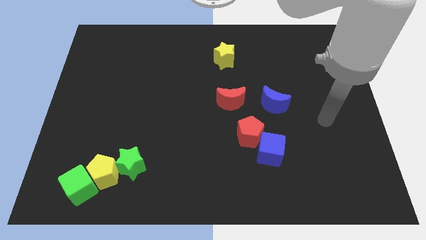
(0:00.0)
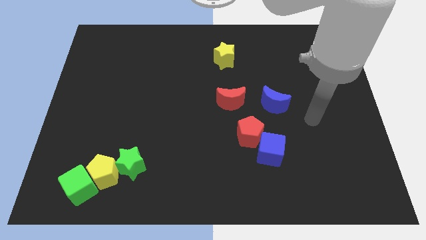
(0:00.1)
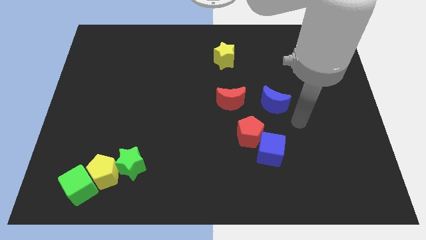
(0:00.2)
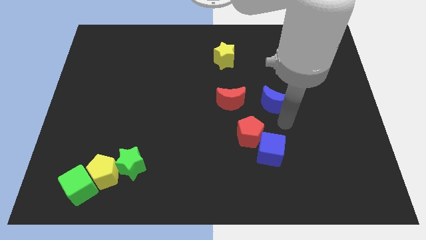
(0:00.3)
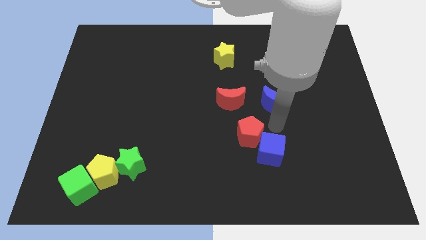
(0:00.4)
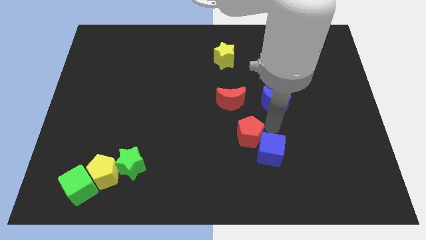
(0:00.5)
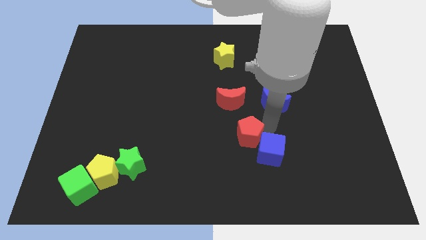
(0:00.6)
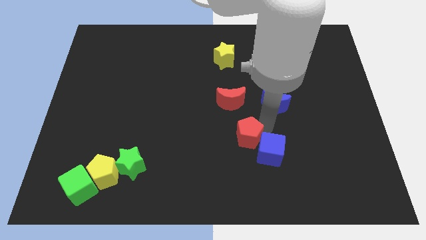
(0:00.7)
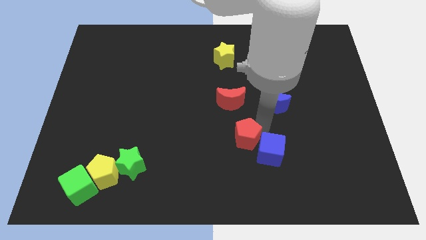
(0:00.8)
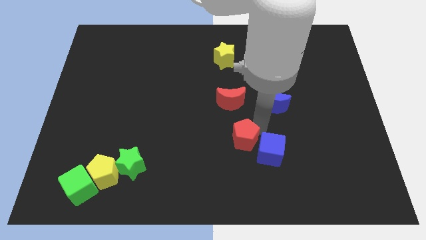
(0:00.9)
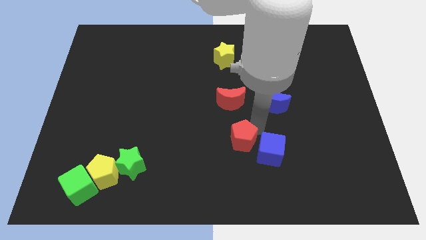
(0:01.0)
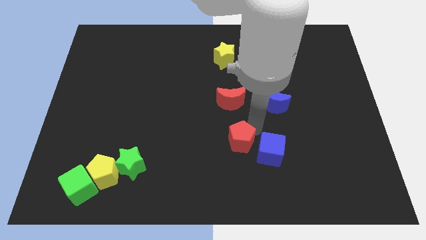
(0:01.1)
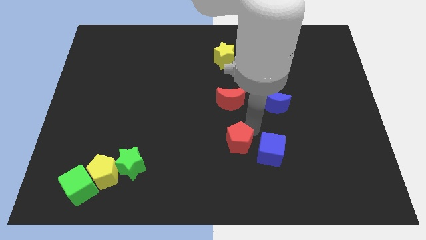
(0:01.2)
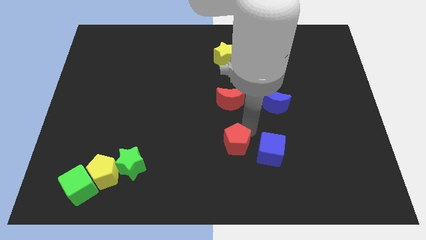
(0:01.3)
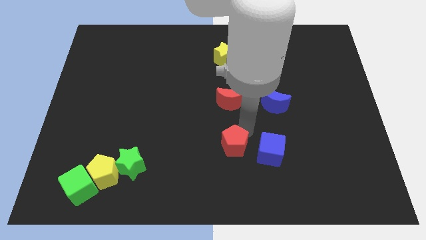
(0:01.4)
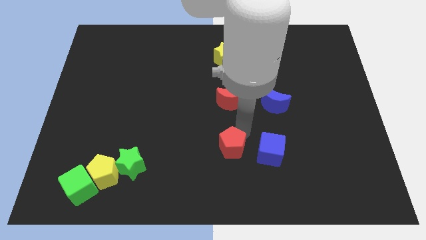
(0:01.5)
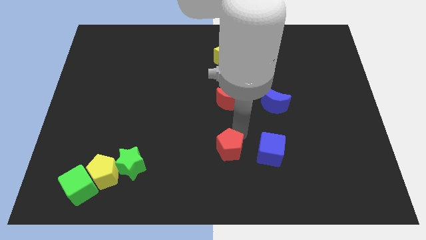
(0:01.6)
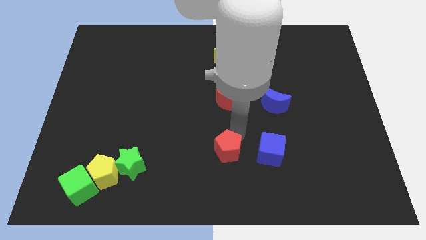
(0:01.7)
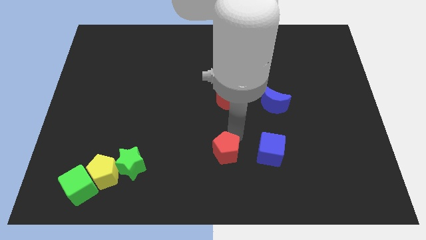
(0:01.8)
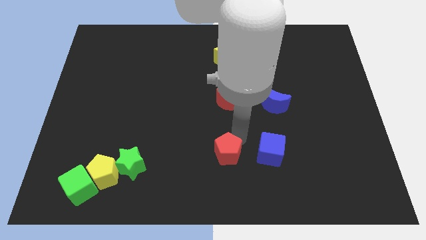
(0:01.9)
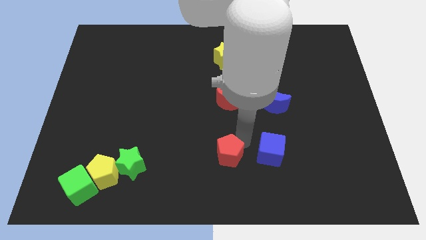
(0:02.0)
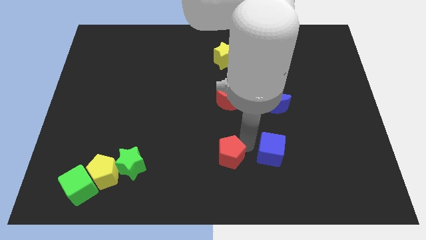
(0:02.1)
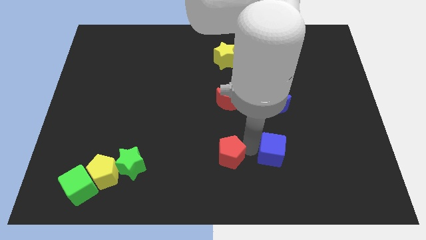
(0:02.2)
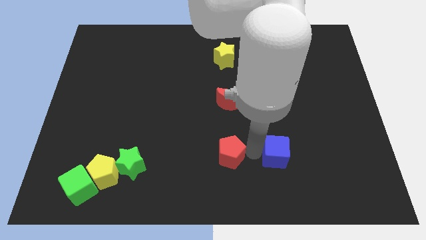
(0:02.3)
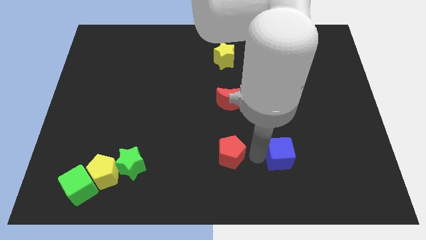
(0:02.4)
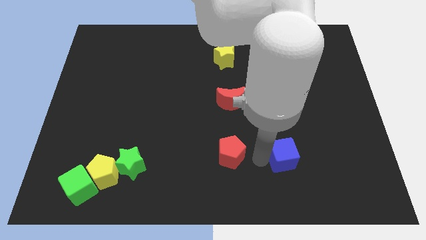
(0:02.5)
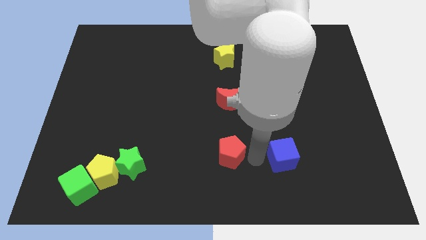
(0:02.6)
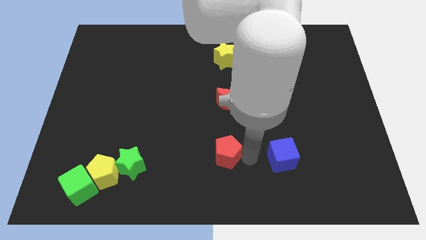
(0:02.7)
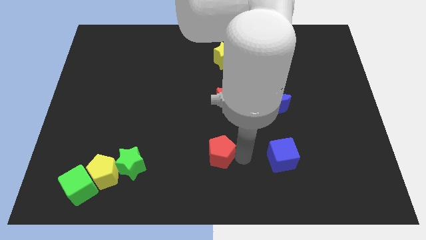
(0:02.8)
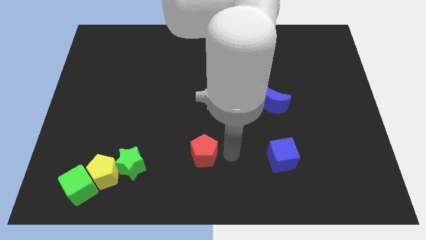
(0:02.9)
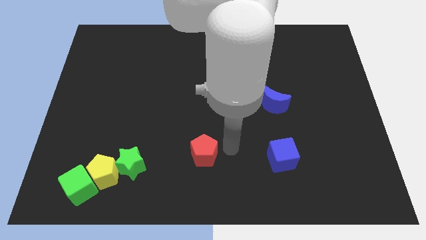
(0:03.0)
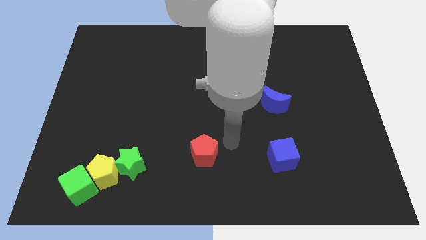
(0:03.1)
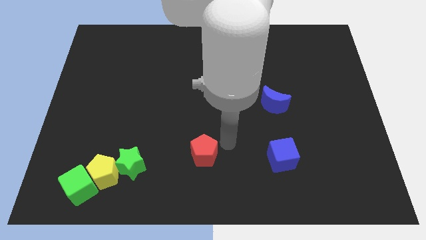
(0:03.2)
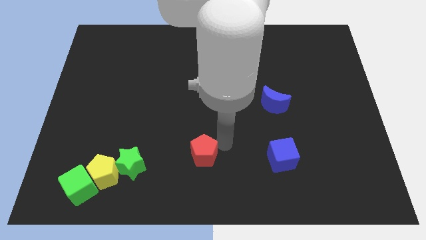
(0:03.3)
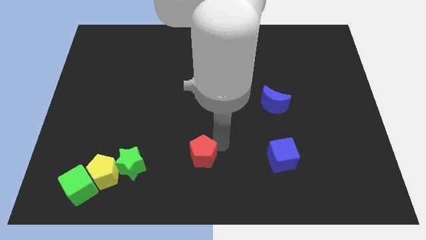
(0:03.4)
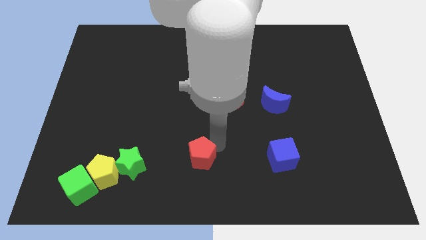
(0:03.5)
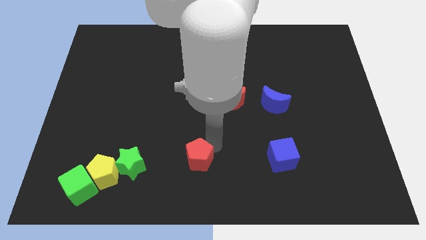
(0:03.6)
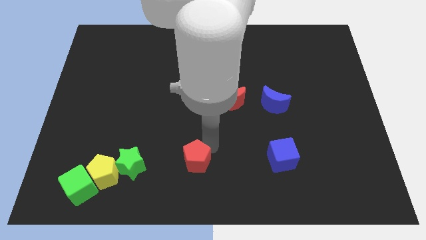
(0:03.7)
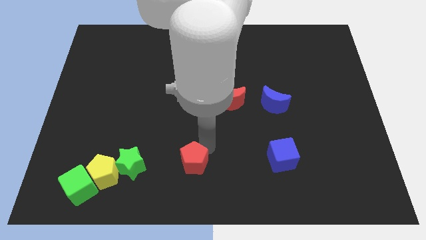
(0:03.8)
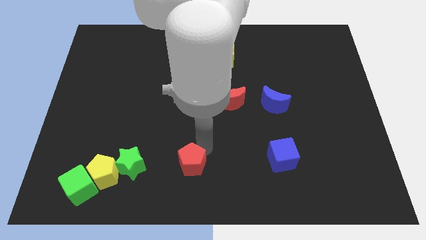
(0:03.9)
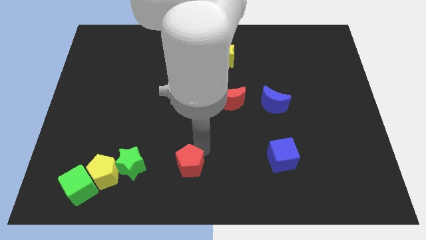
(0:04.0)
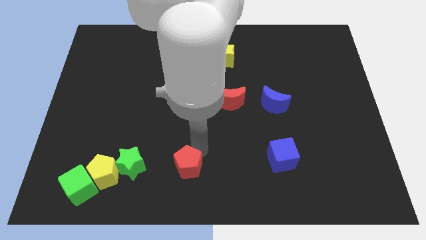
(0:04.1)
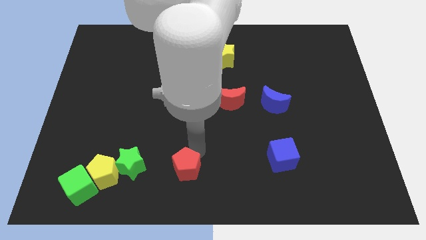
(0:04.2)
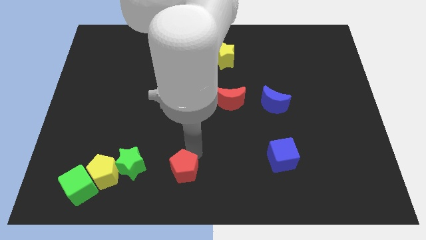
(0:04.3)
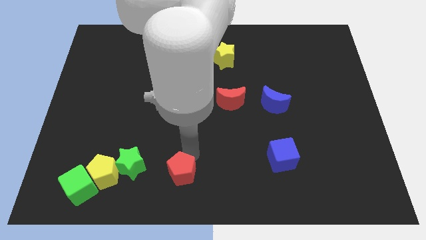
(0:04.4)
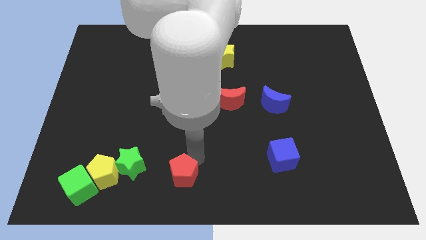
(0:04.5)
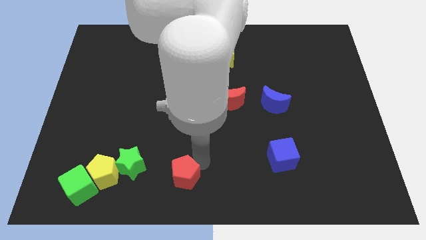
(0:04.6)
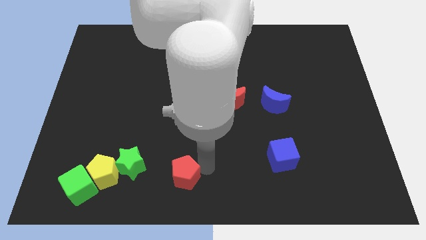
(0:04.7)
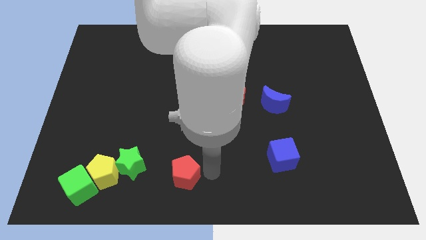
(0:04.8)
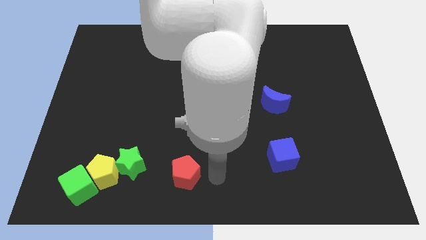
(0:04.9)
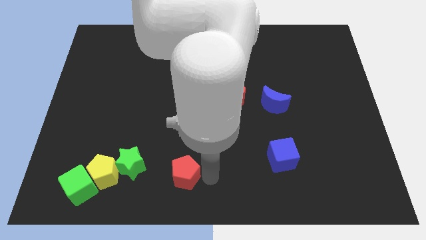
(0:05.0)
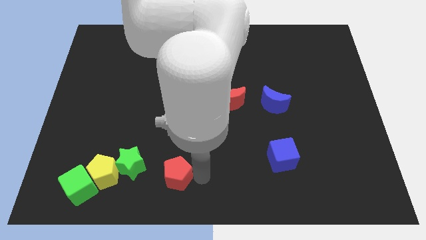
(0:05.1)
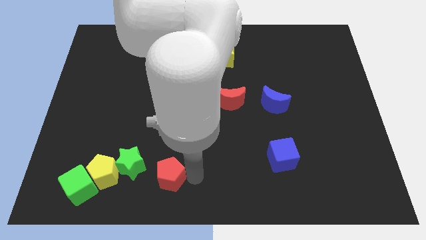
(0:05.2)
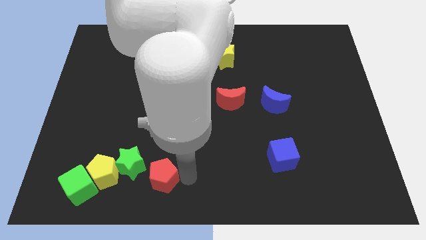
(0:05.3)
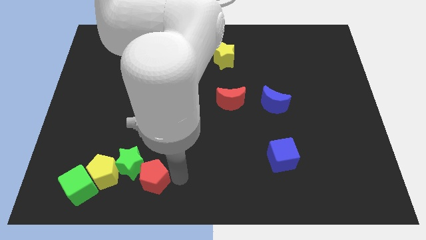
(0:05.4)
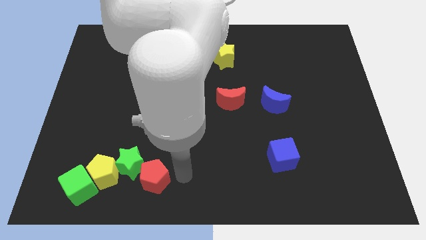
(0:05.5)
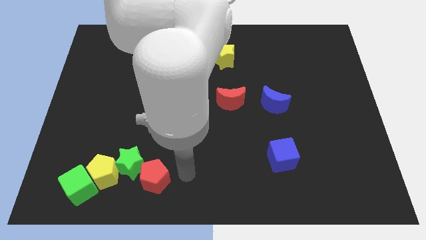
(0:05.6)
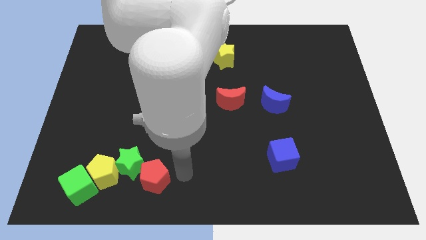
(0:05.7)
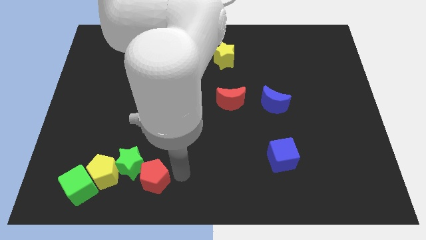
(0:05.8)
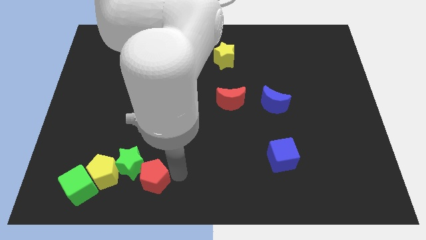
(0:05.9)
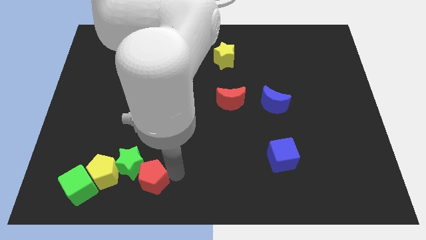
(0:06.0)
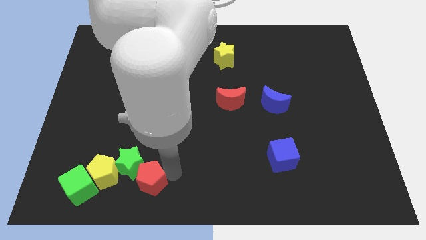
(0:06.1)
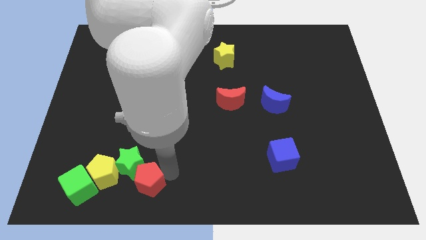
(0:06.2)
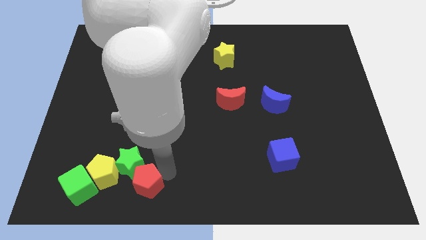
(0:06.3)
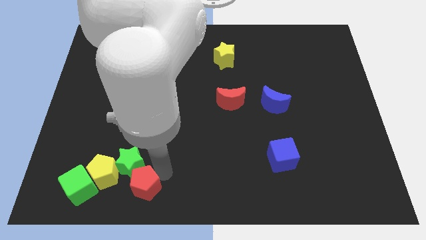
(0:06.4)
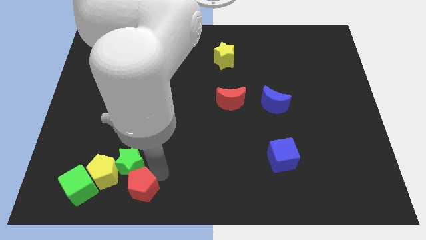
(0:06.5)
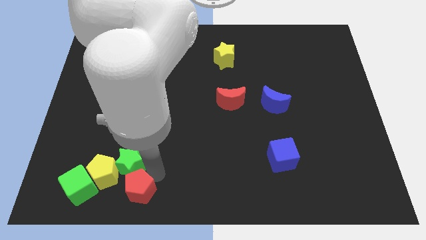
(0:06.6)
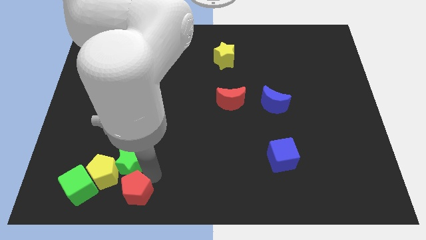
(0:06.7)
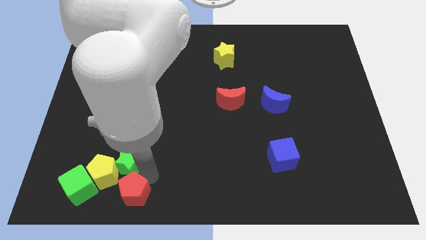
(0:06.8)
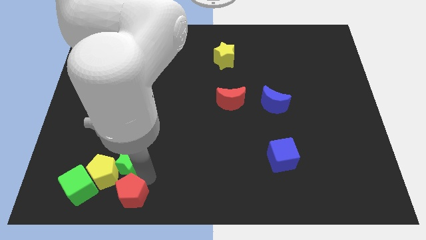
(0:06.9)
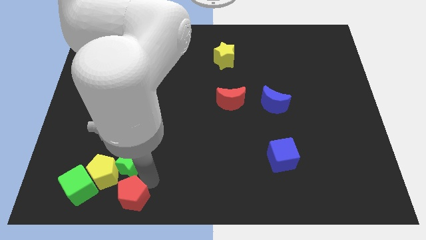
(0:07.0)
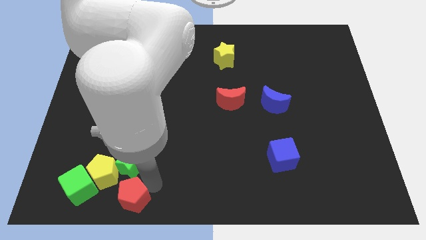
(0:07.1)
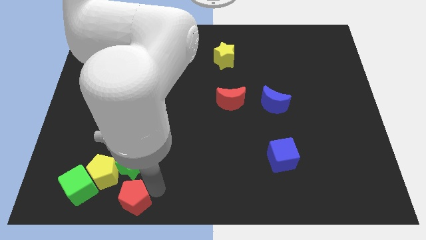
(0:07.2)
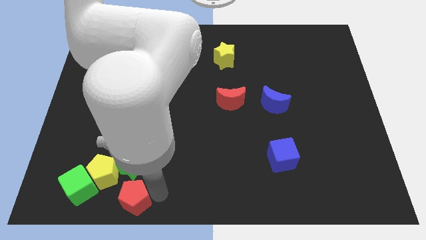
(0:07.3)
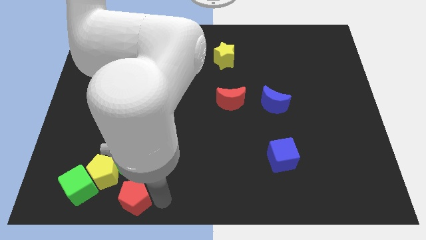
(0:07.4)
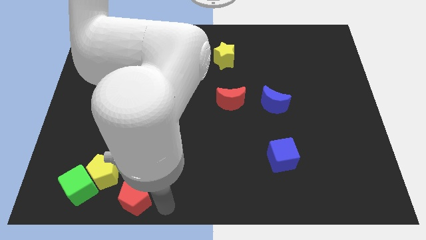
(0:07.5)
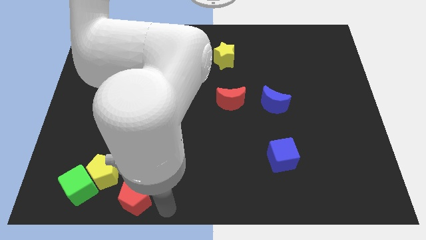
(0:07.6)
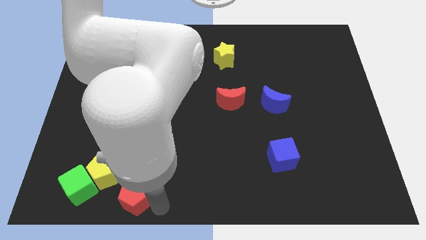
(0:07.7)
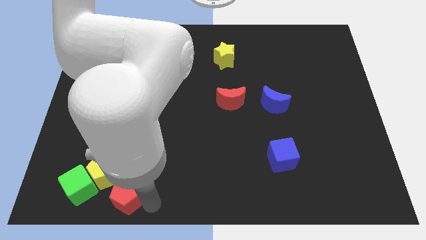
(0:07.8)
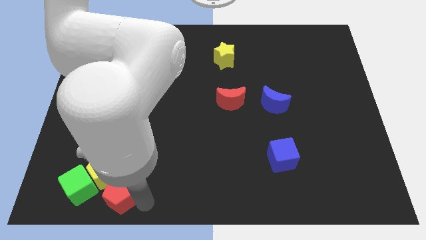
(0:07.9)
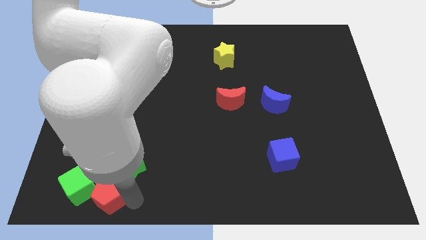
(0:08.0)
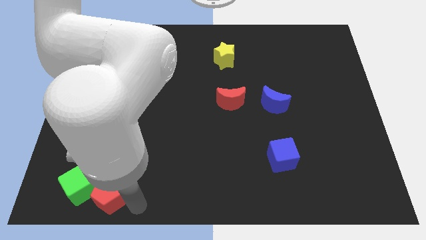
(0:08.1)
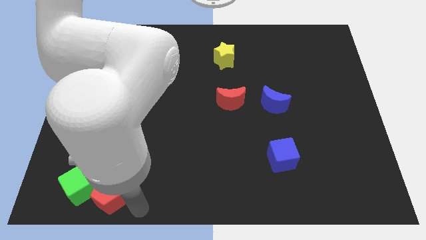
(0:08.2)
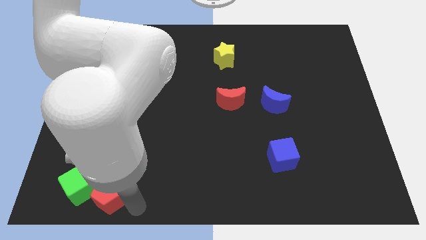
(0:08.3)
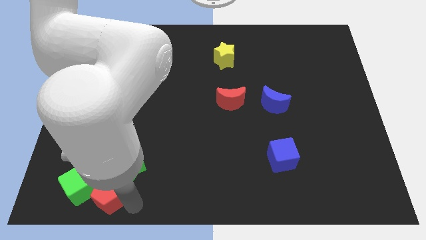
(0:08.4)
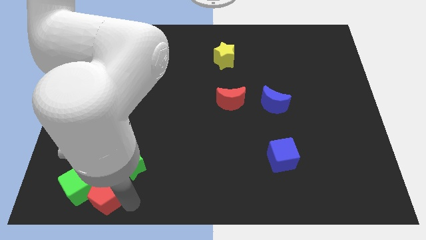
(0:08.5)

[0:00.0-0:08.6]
push the red pentagon close to the green cube
